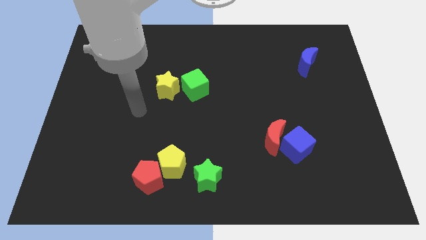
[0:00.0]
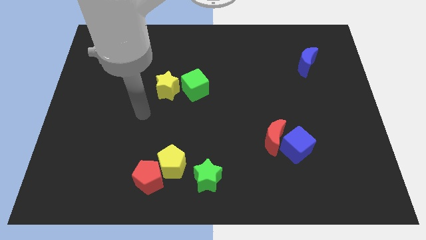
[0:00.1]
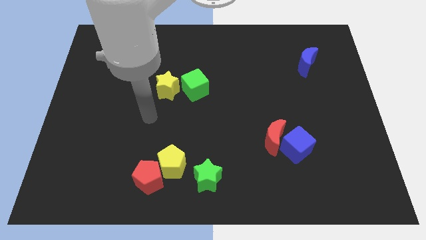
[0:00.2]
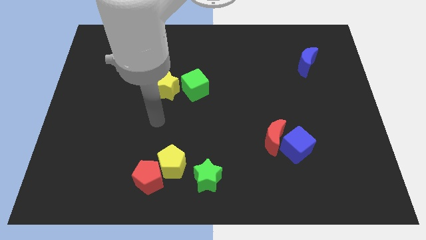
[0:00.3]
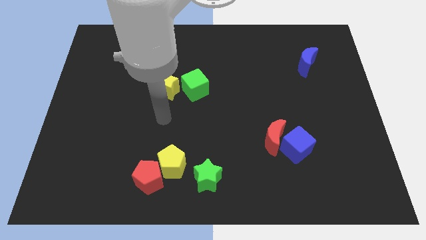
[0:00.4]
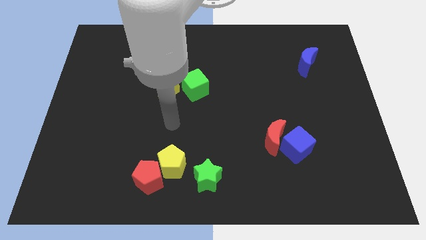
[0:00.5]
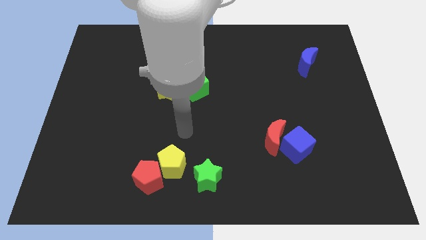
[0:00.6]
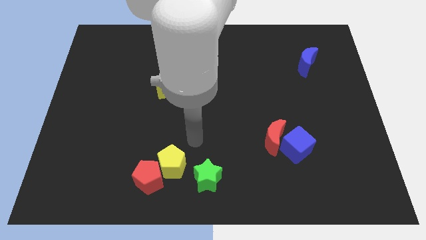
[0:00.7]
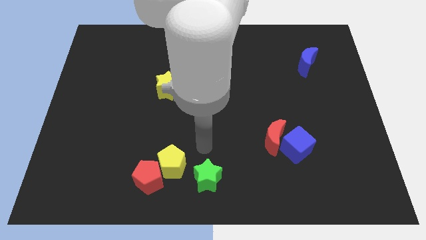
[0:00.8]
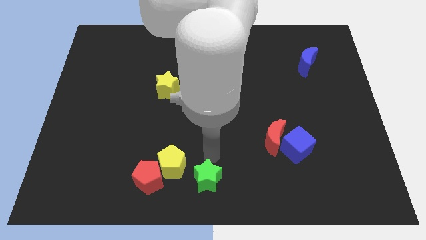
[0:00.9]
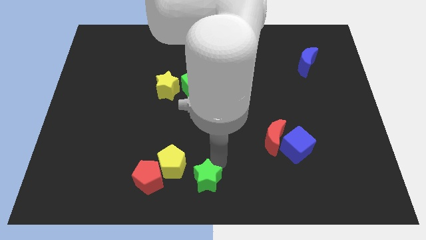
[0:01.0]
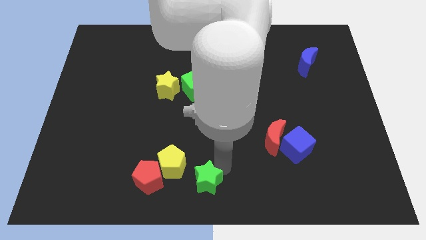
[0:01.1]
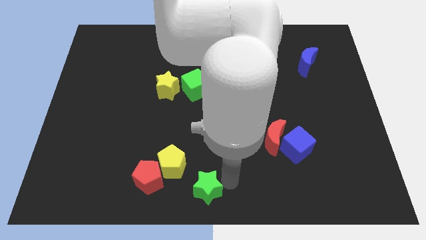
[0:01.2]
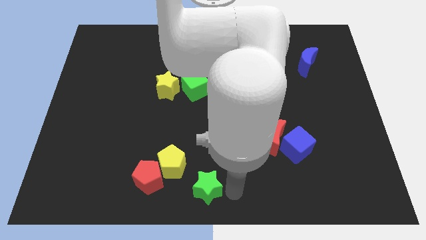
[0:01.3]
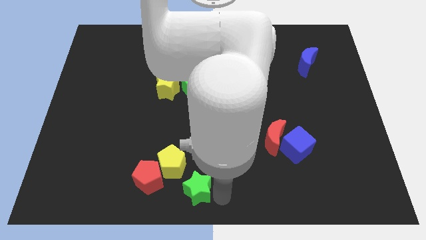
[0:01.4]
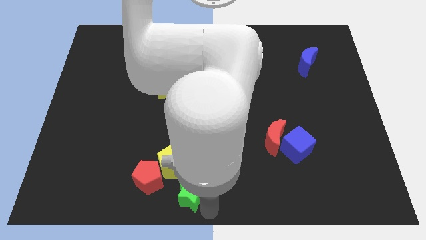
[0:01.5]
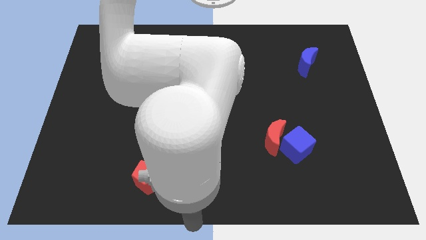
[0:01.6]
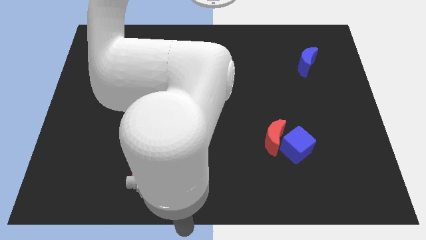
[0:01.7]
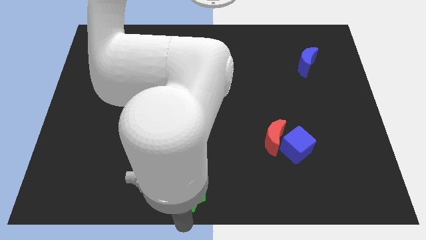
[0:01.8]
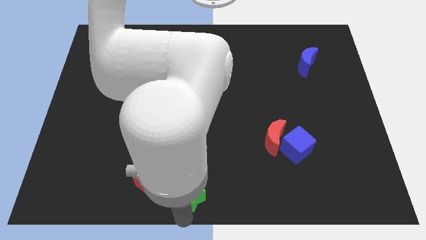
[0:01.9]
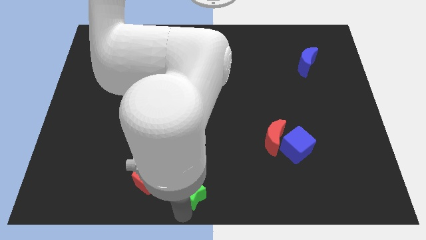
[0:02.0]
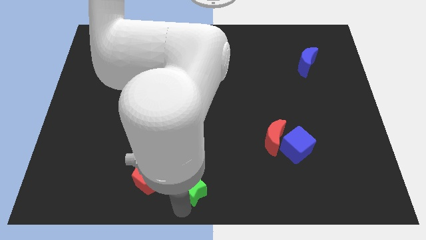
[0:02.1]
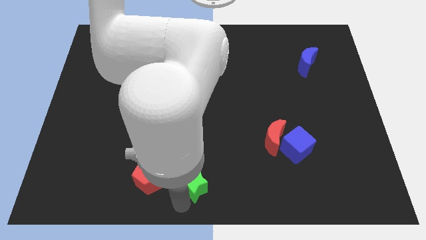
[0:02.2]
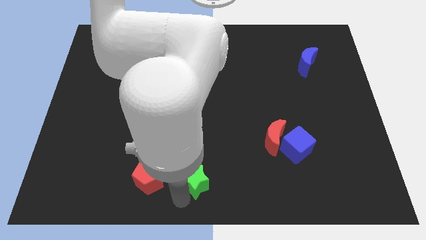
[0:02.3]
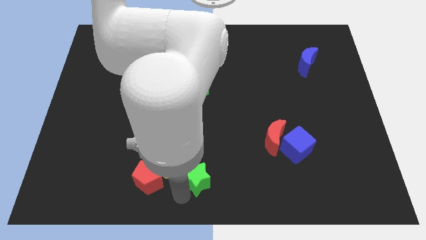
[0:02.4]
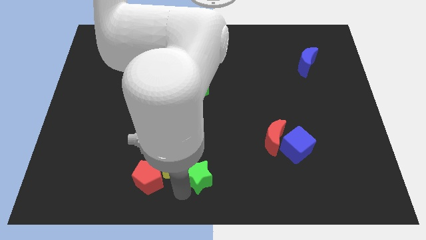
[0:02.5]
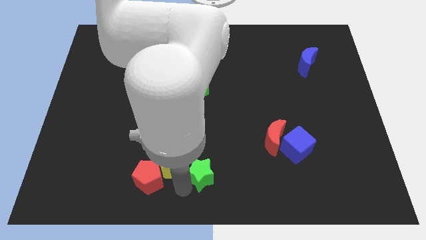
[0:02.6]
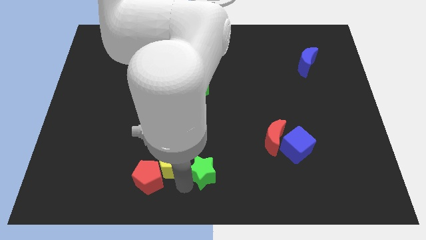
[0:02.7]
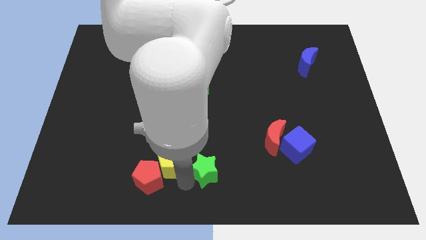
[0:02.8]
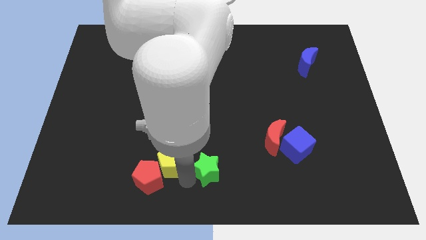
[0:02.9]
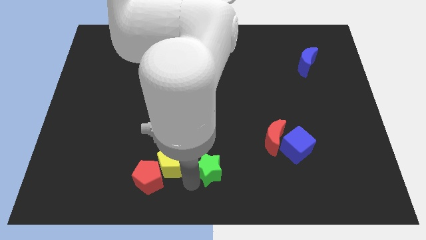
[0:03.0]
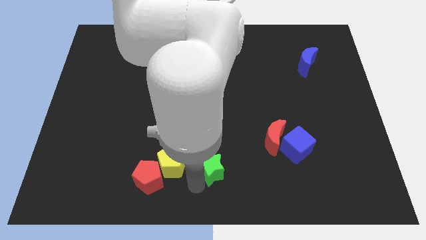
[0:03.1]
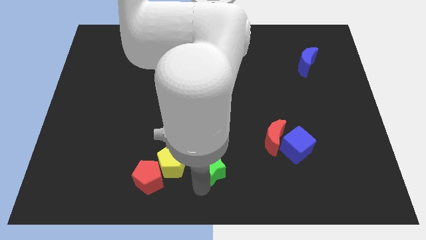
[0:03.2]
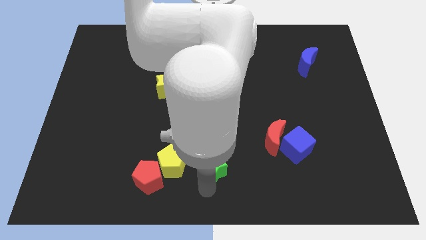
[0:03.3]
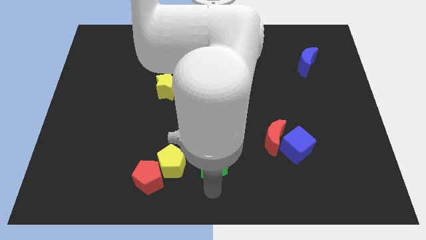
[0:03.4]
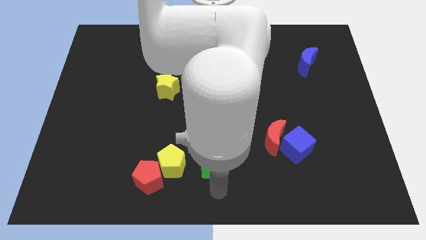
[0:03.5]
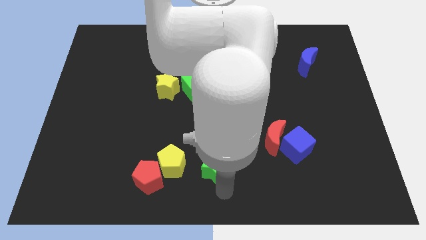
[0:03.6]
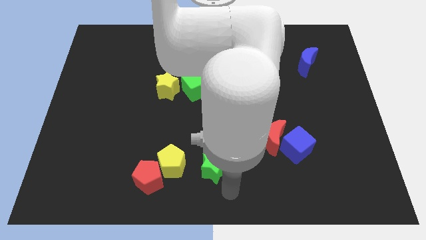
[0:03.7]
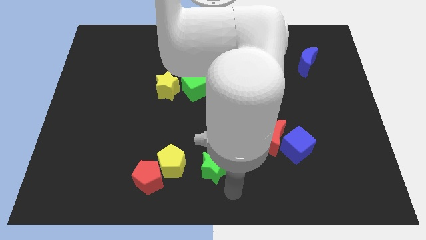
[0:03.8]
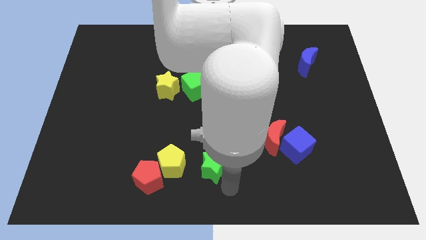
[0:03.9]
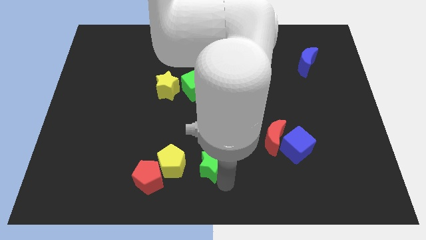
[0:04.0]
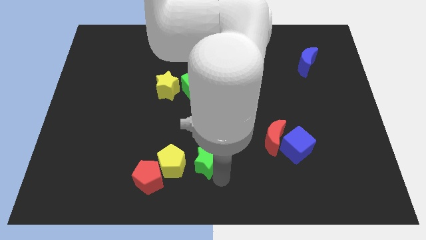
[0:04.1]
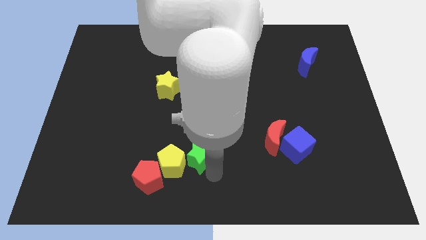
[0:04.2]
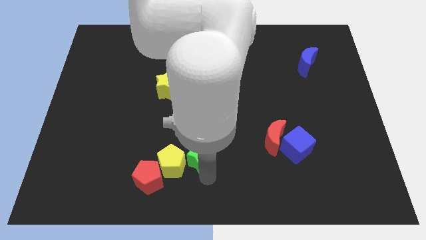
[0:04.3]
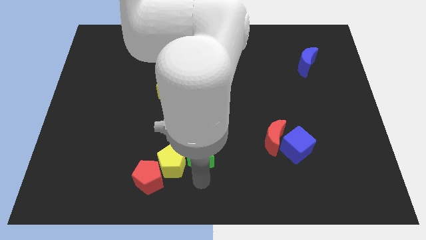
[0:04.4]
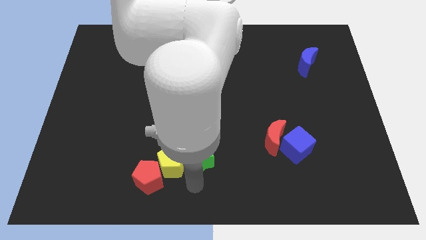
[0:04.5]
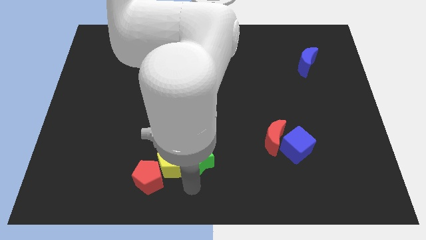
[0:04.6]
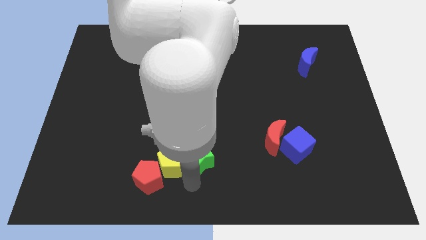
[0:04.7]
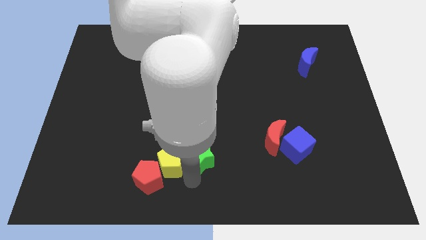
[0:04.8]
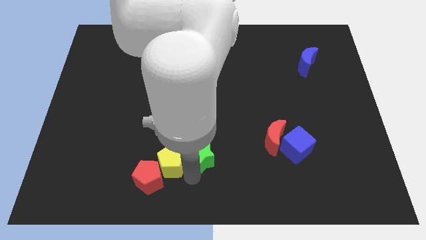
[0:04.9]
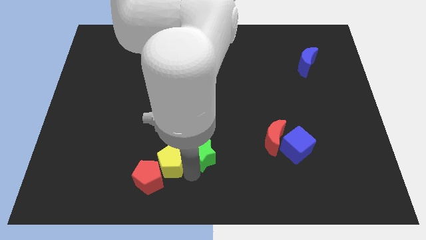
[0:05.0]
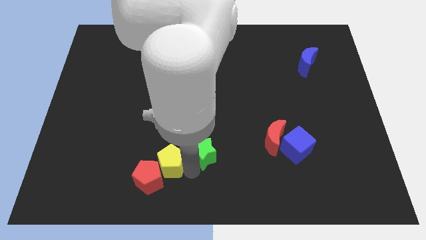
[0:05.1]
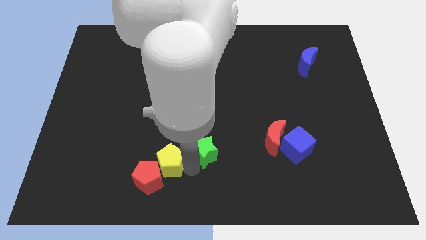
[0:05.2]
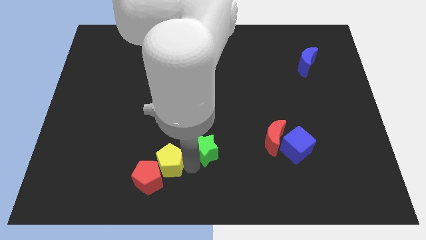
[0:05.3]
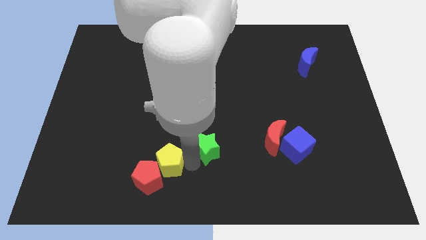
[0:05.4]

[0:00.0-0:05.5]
push the green star upwards a little

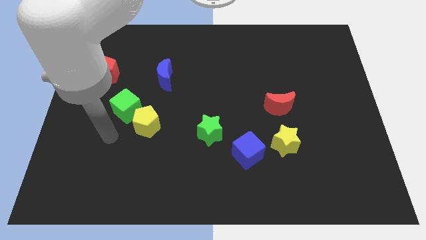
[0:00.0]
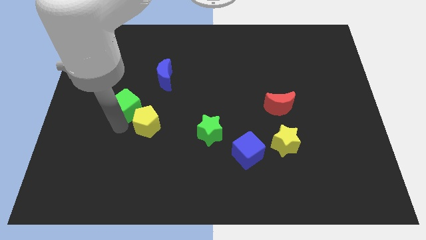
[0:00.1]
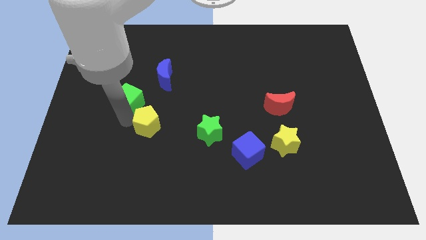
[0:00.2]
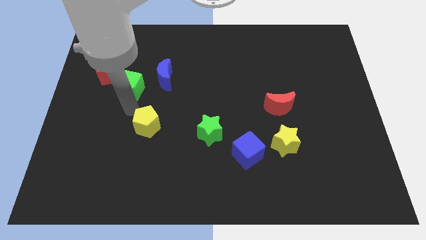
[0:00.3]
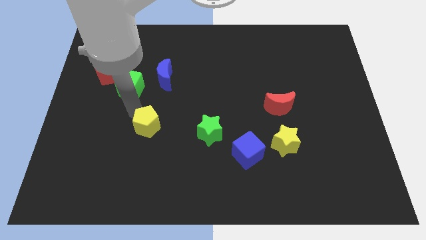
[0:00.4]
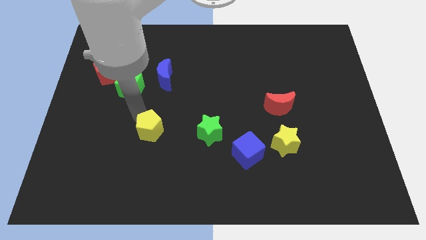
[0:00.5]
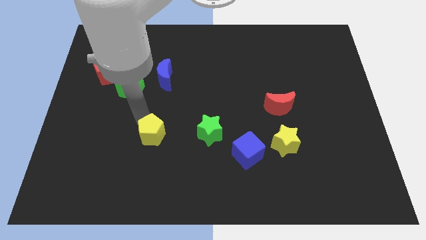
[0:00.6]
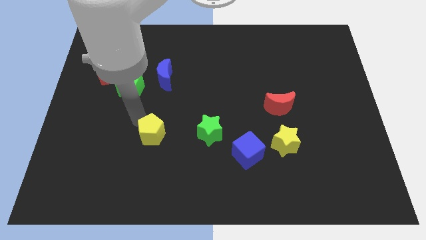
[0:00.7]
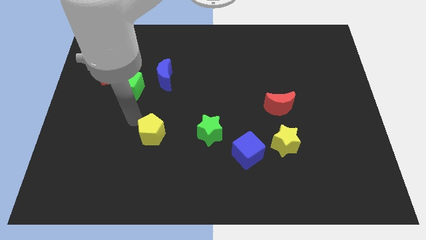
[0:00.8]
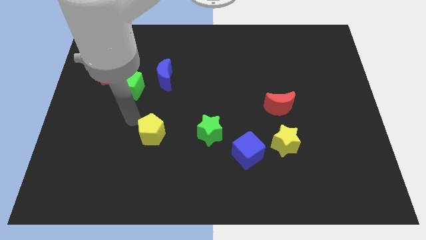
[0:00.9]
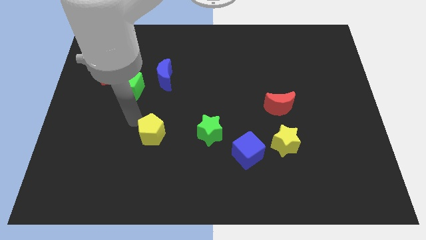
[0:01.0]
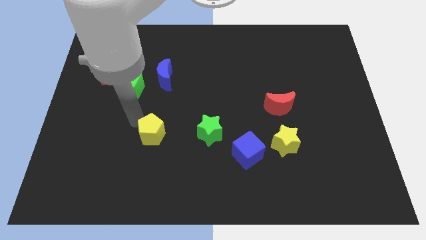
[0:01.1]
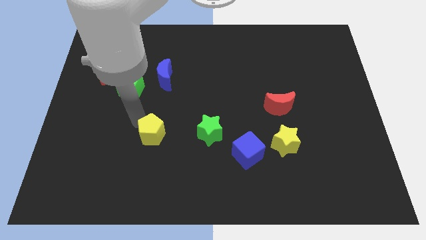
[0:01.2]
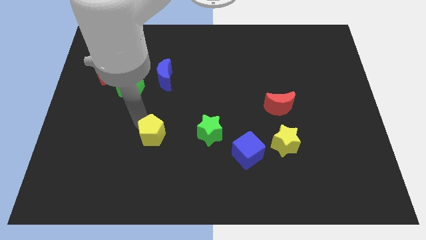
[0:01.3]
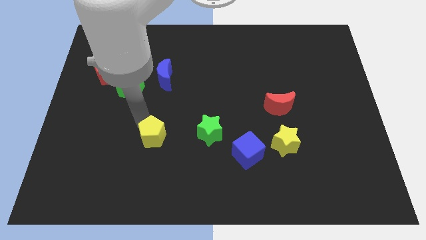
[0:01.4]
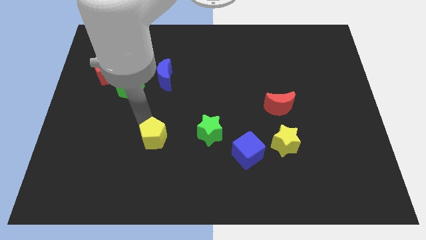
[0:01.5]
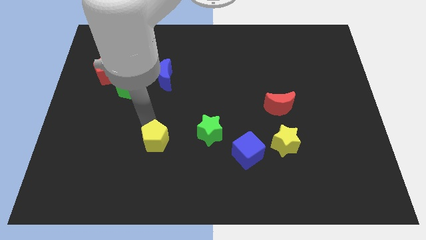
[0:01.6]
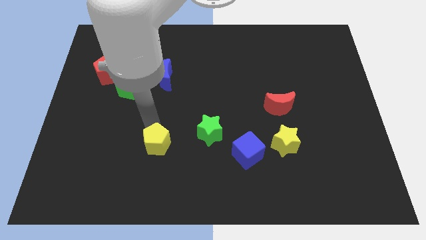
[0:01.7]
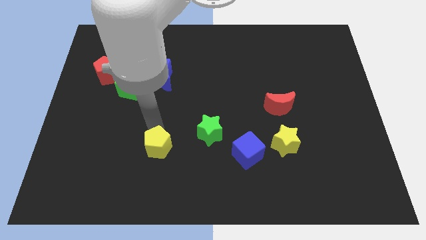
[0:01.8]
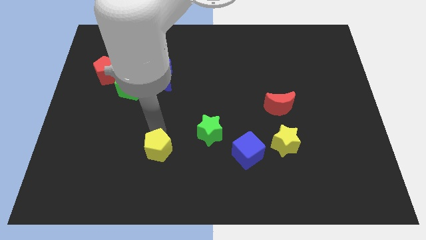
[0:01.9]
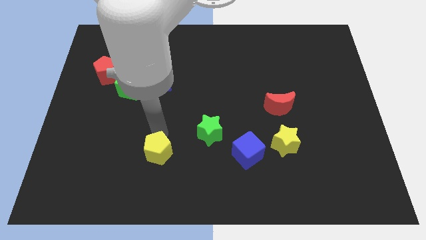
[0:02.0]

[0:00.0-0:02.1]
move the yellow pentagon slightly downwards and to the right

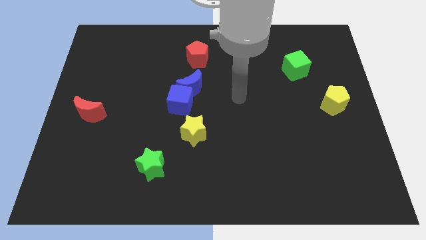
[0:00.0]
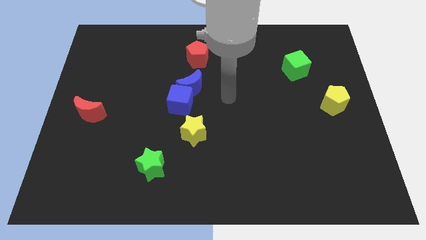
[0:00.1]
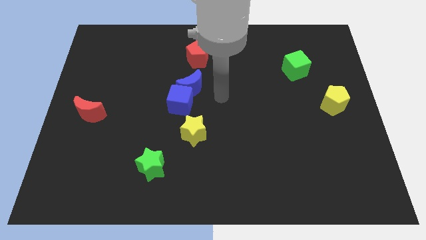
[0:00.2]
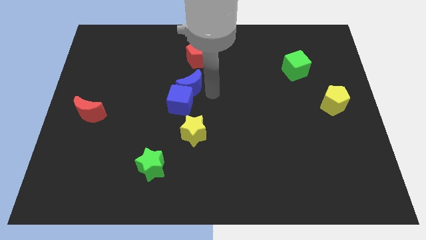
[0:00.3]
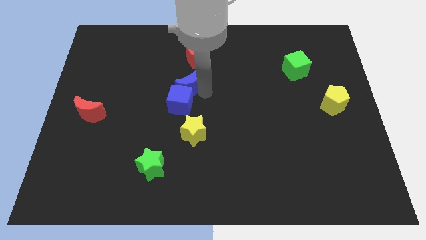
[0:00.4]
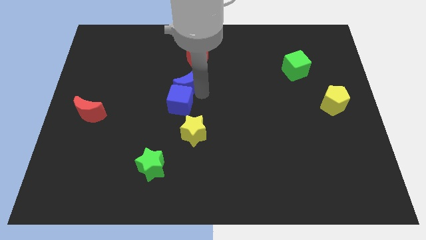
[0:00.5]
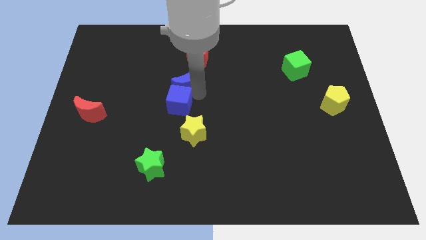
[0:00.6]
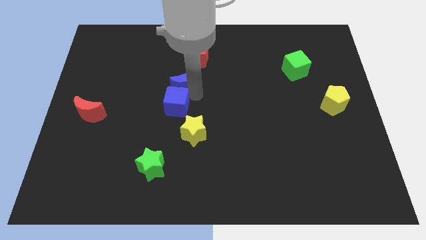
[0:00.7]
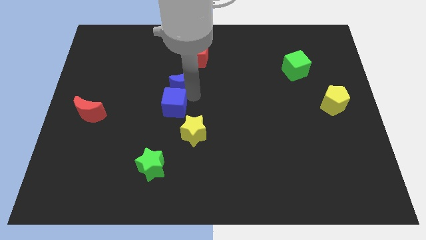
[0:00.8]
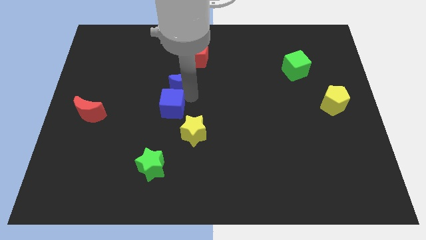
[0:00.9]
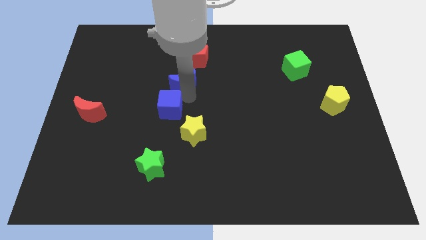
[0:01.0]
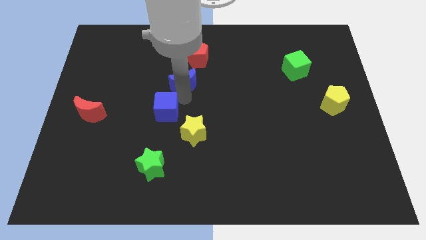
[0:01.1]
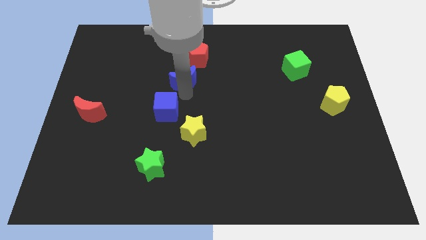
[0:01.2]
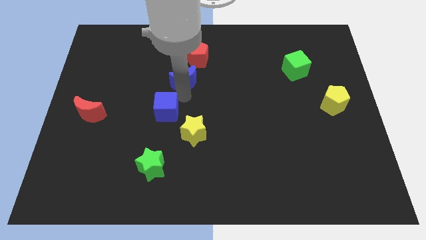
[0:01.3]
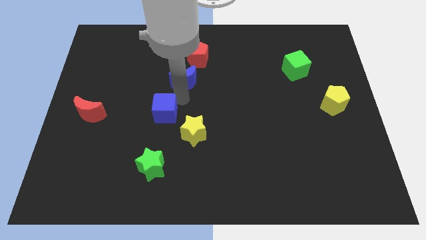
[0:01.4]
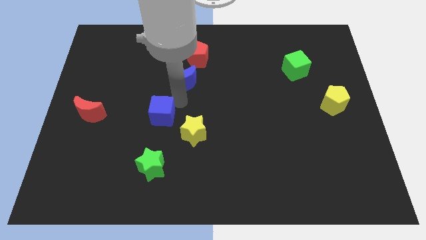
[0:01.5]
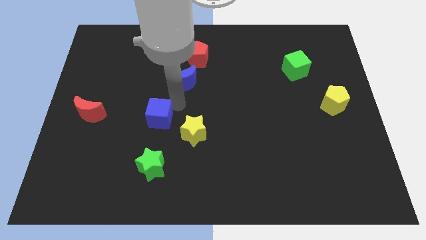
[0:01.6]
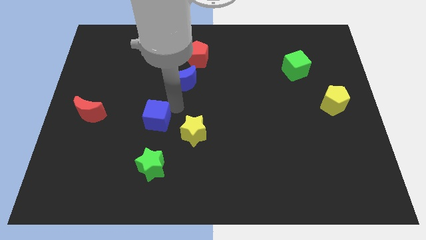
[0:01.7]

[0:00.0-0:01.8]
slide the blue cube a little bit downwards and left diagonally
